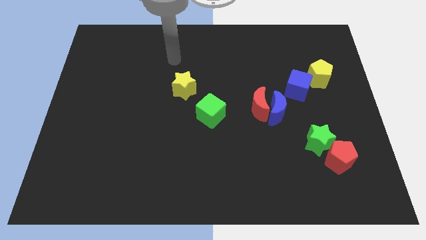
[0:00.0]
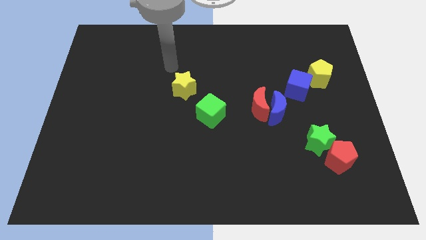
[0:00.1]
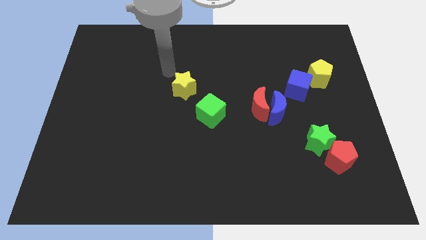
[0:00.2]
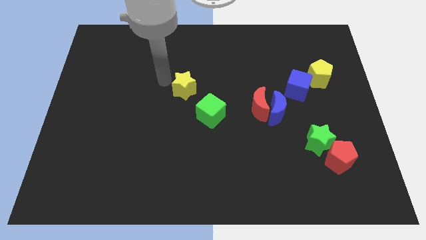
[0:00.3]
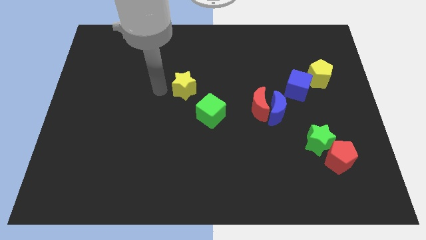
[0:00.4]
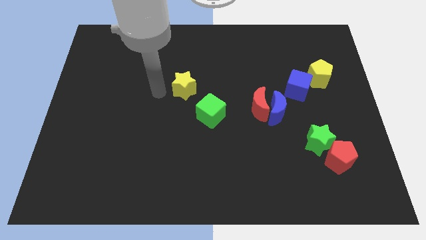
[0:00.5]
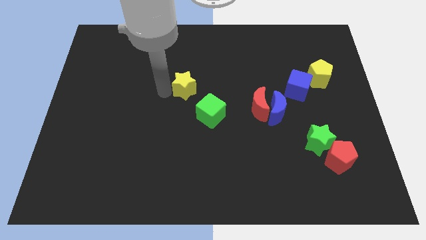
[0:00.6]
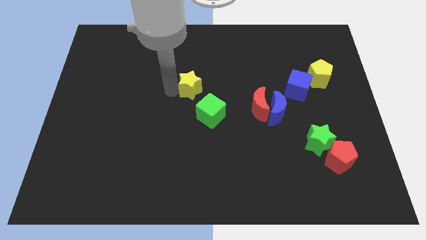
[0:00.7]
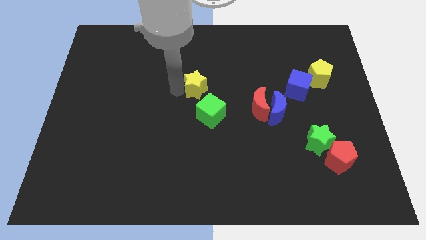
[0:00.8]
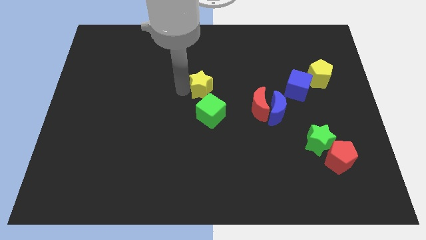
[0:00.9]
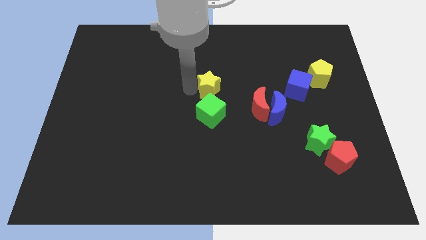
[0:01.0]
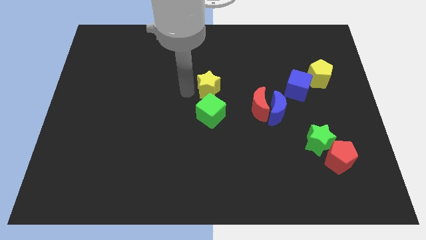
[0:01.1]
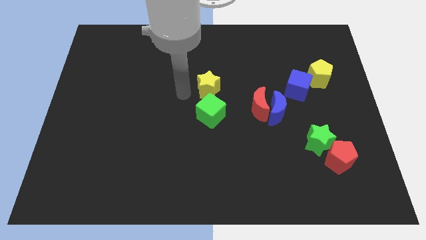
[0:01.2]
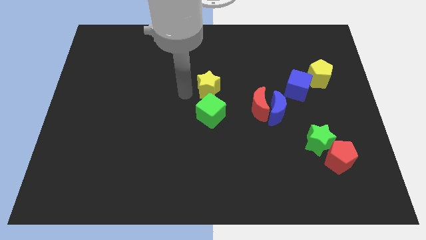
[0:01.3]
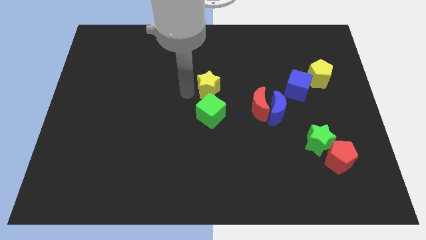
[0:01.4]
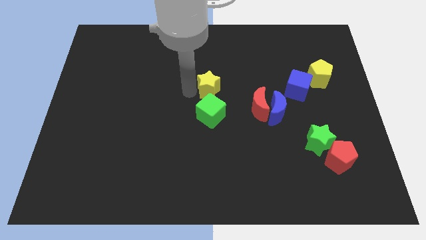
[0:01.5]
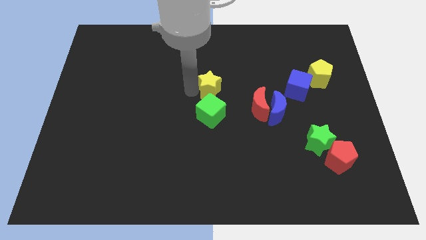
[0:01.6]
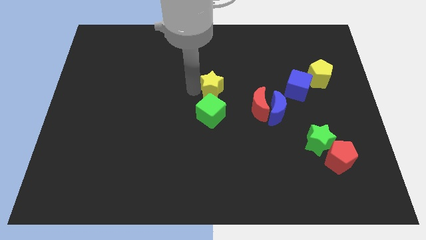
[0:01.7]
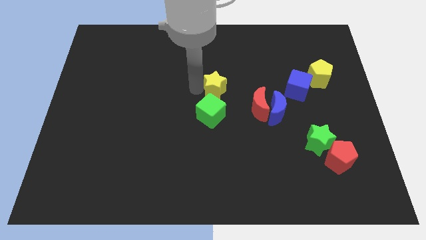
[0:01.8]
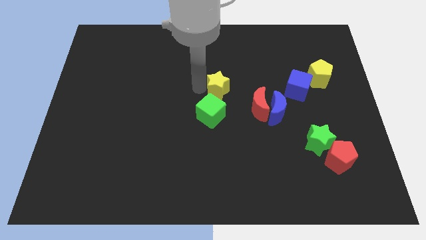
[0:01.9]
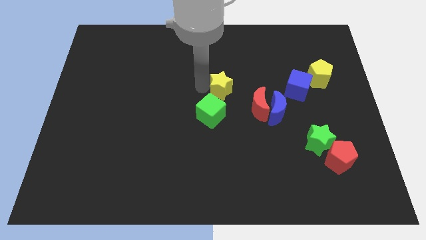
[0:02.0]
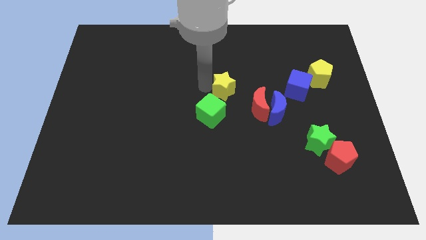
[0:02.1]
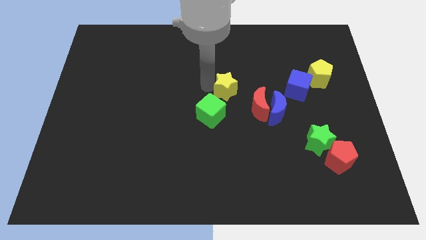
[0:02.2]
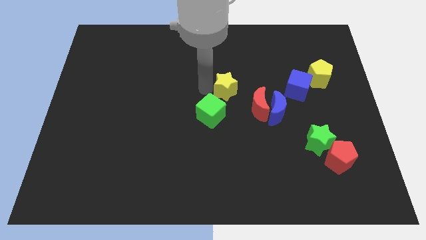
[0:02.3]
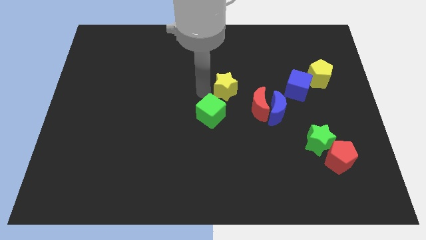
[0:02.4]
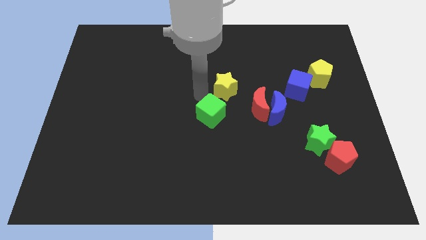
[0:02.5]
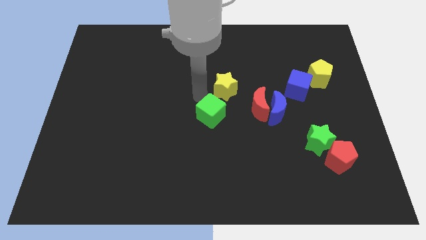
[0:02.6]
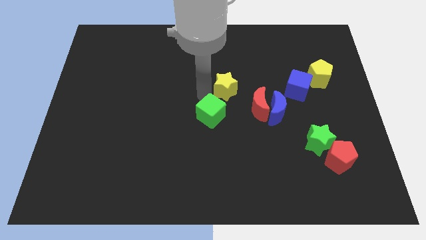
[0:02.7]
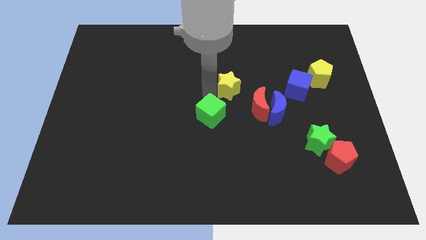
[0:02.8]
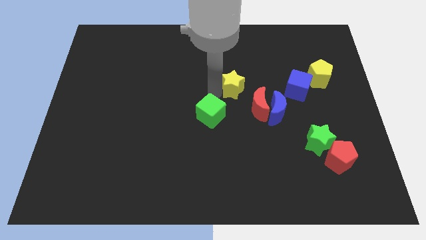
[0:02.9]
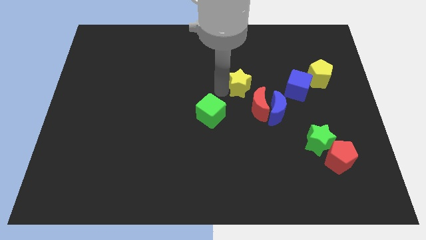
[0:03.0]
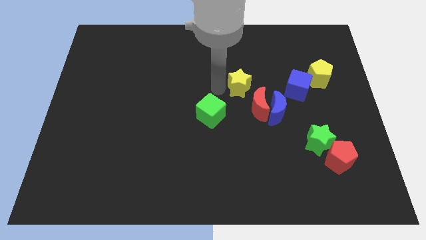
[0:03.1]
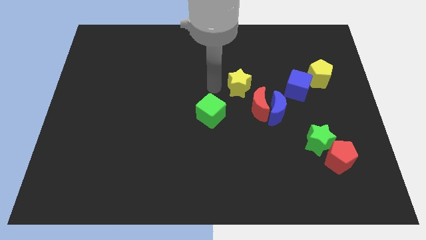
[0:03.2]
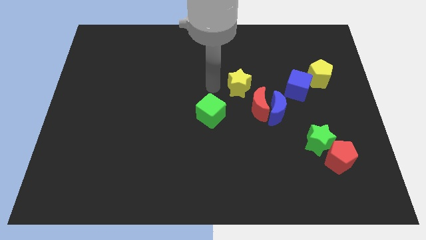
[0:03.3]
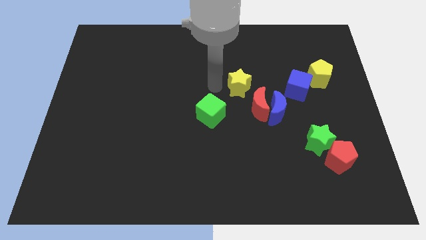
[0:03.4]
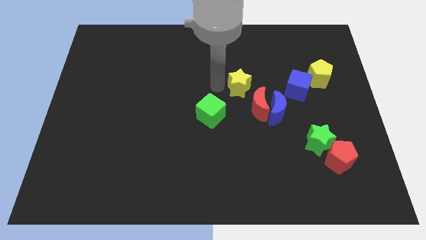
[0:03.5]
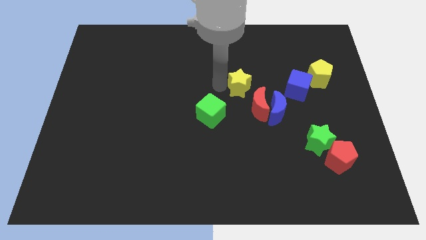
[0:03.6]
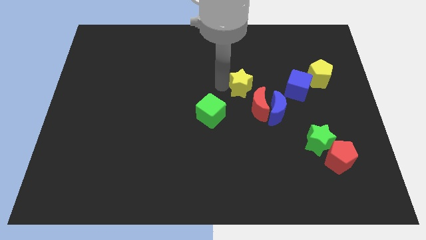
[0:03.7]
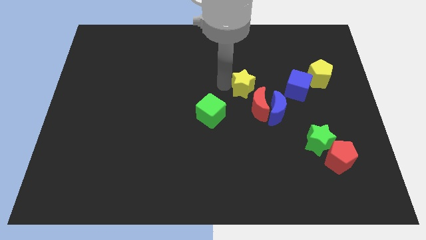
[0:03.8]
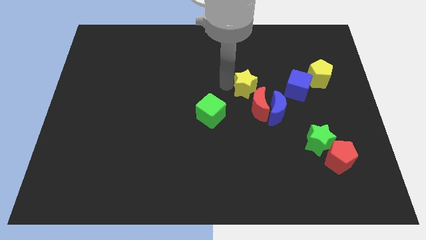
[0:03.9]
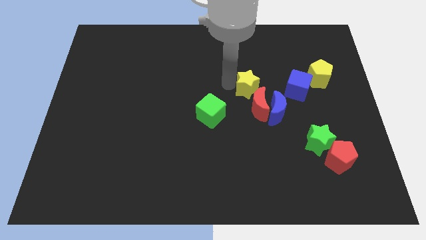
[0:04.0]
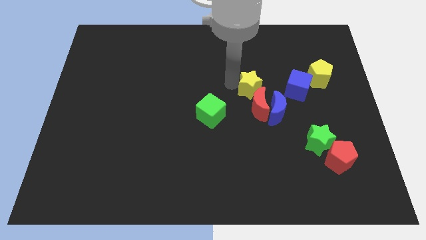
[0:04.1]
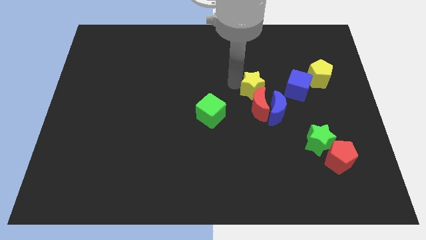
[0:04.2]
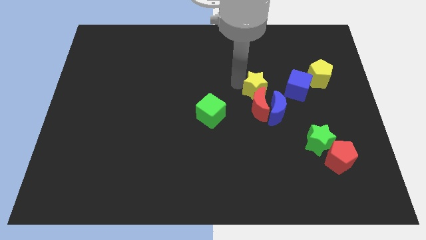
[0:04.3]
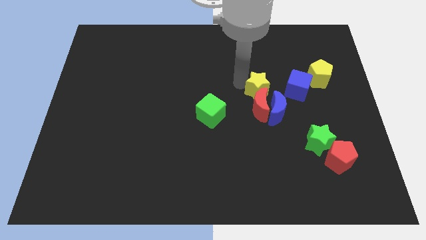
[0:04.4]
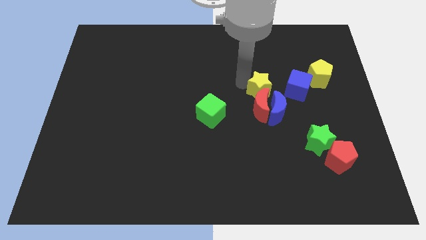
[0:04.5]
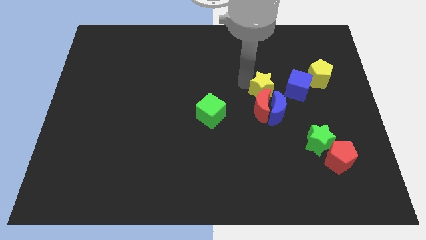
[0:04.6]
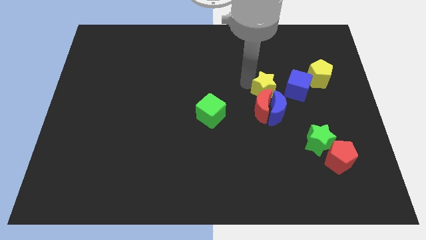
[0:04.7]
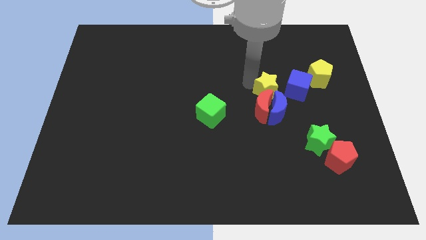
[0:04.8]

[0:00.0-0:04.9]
move the yellow star right

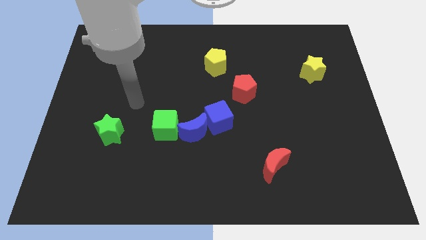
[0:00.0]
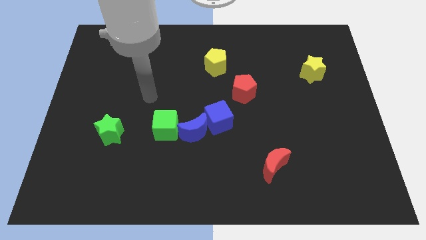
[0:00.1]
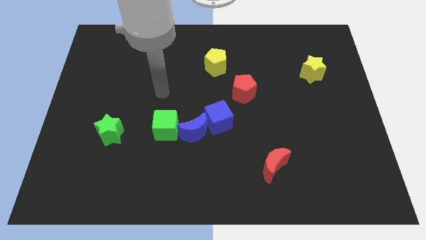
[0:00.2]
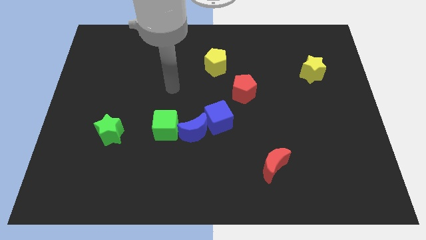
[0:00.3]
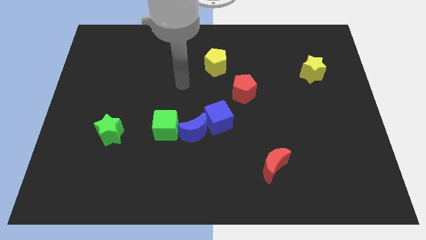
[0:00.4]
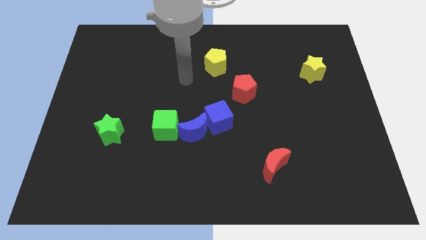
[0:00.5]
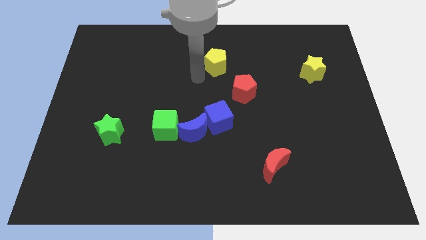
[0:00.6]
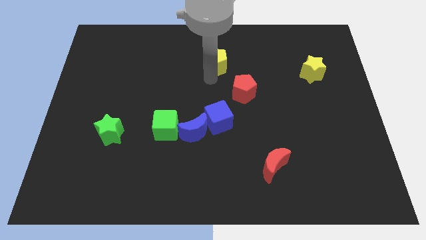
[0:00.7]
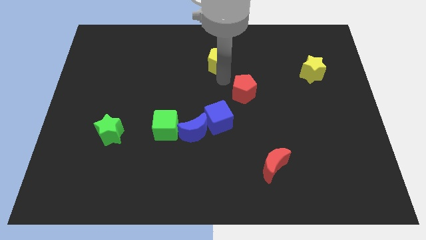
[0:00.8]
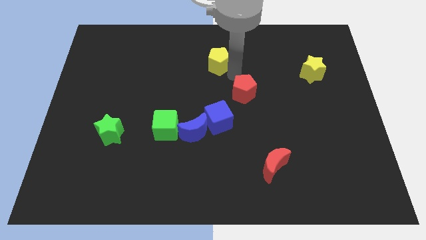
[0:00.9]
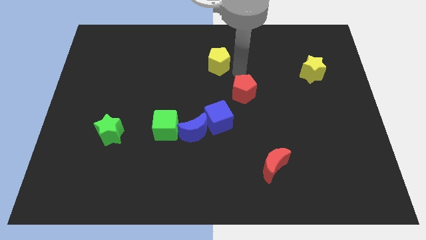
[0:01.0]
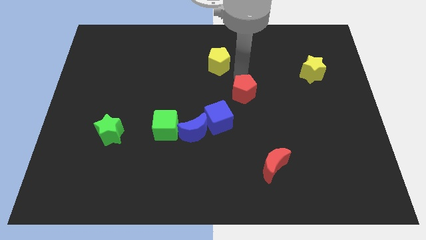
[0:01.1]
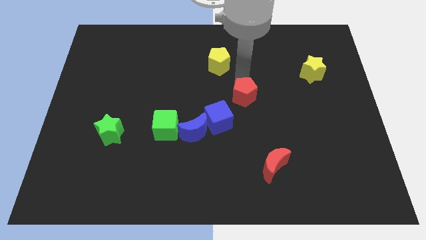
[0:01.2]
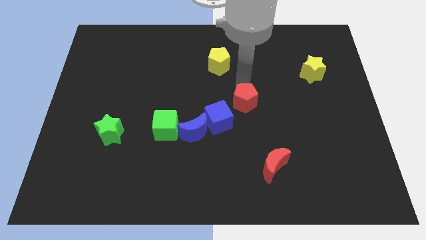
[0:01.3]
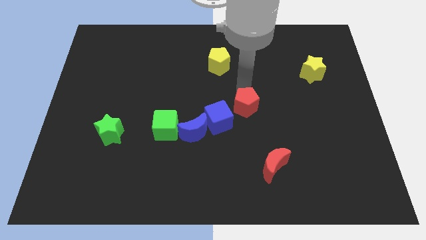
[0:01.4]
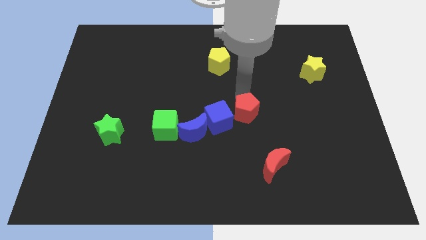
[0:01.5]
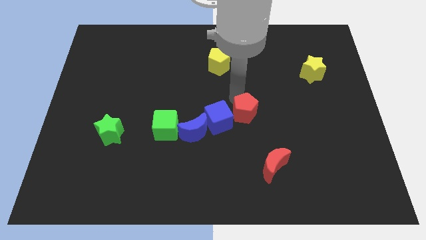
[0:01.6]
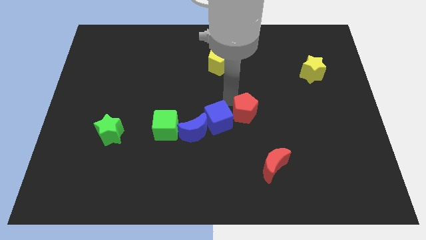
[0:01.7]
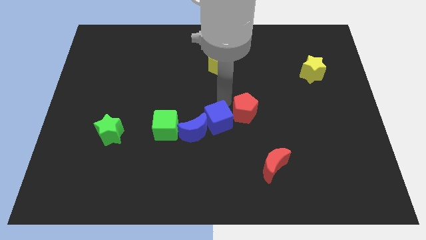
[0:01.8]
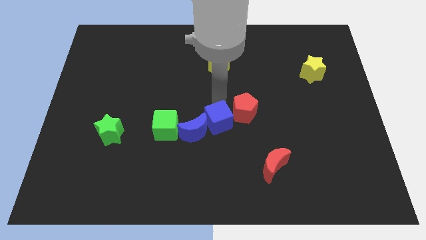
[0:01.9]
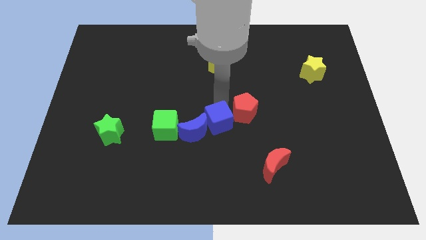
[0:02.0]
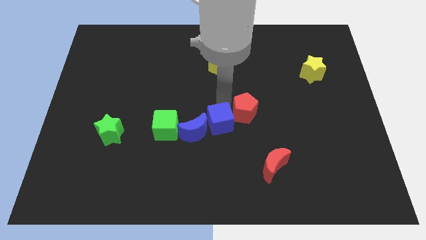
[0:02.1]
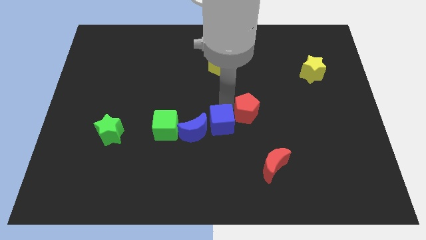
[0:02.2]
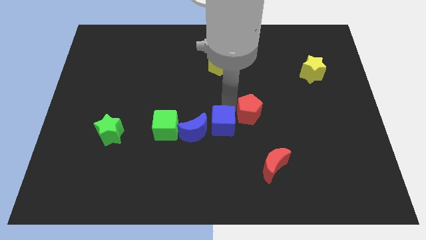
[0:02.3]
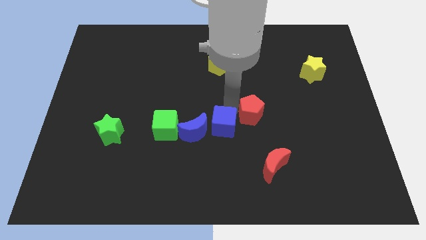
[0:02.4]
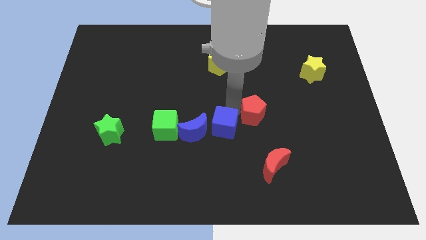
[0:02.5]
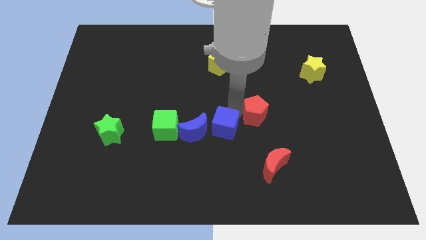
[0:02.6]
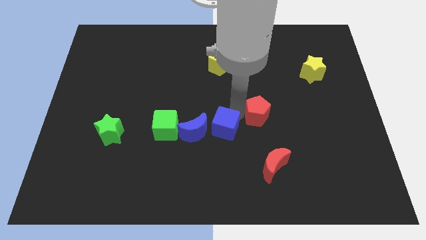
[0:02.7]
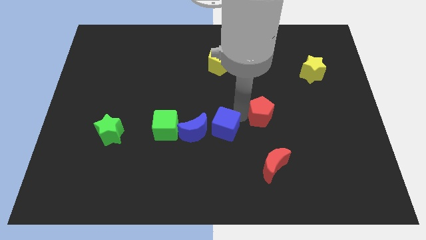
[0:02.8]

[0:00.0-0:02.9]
slightly move the red pentagon down and right
